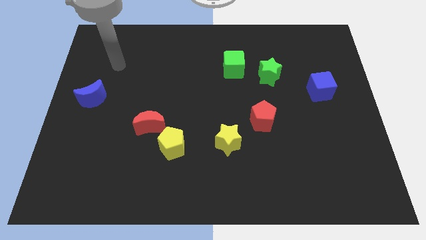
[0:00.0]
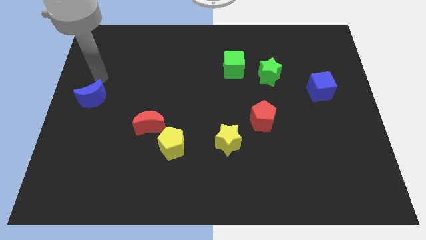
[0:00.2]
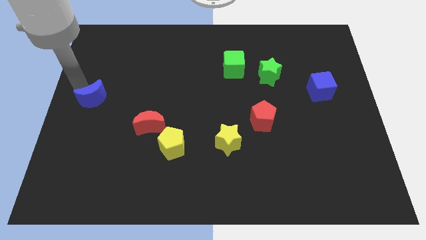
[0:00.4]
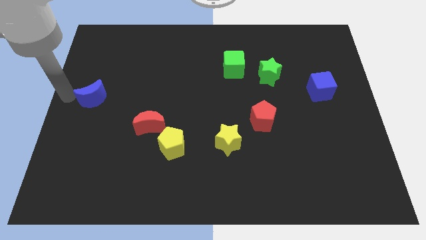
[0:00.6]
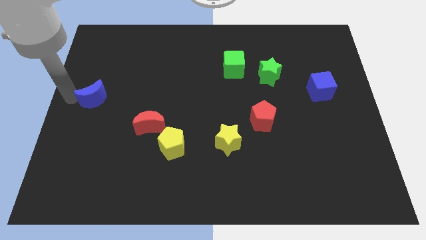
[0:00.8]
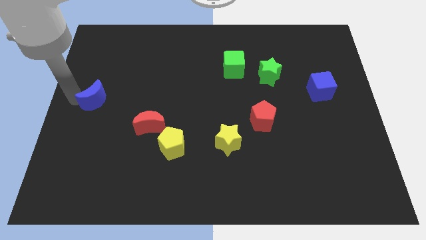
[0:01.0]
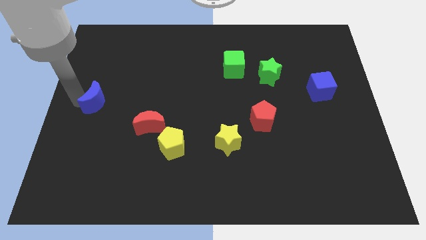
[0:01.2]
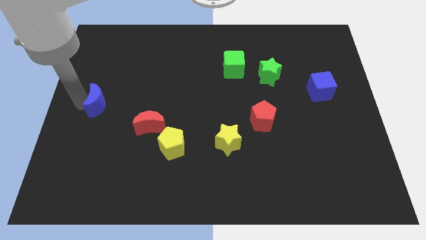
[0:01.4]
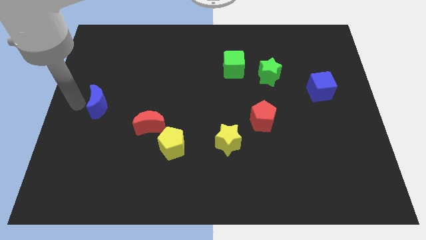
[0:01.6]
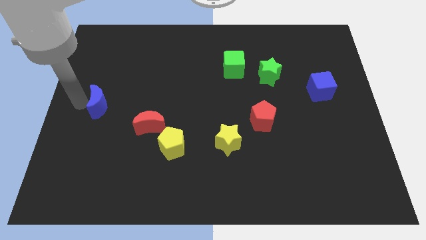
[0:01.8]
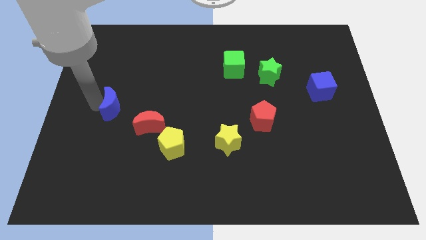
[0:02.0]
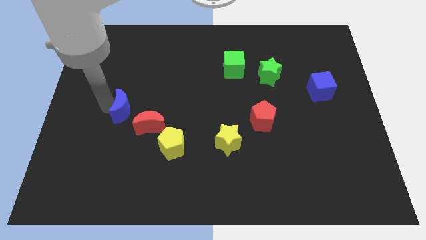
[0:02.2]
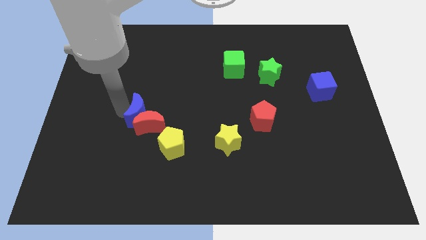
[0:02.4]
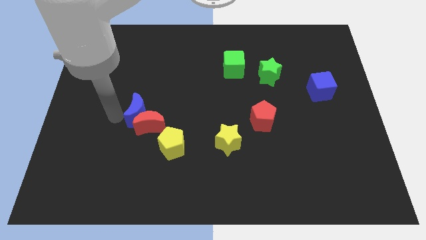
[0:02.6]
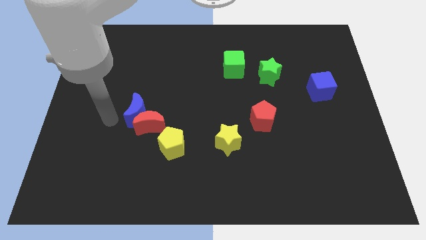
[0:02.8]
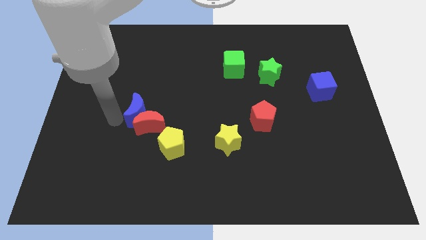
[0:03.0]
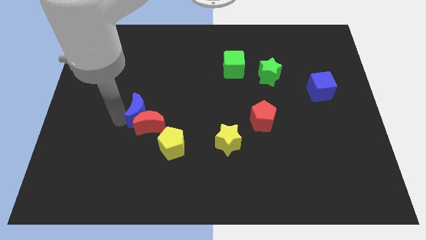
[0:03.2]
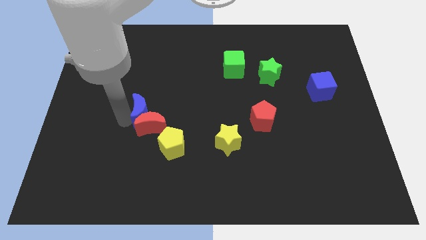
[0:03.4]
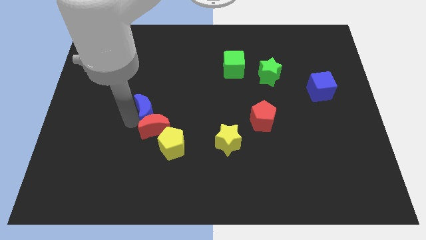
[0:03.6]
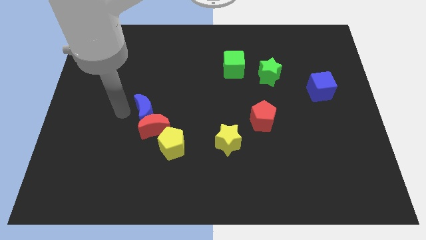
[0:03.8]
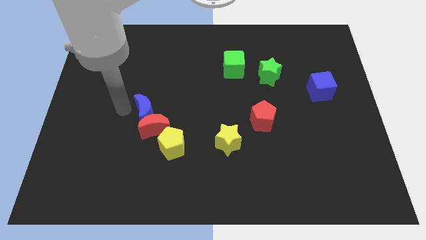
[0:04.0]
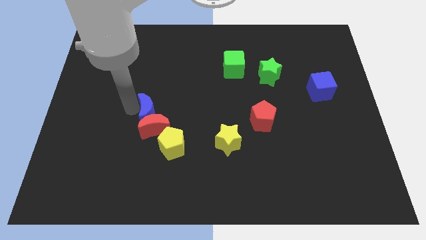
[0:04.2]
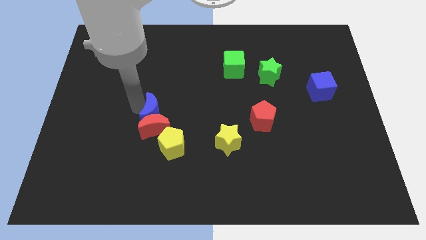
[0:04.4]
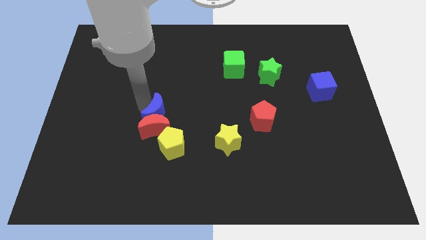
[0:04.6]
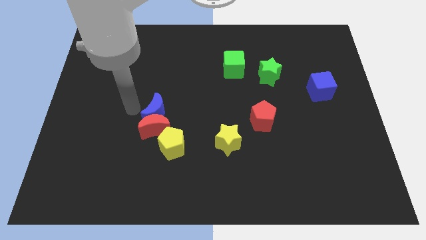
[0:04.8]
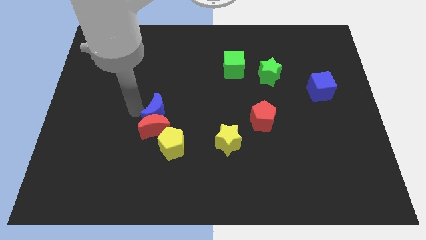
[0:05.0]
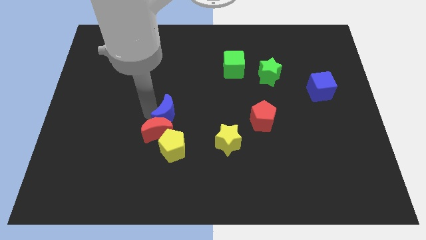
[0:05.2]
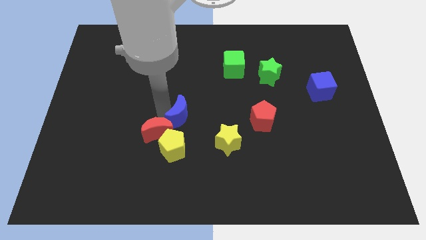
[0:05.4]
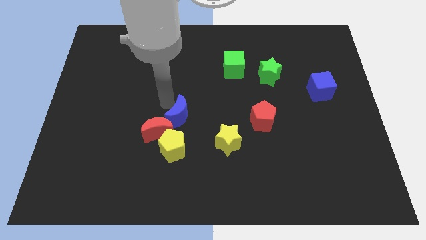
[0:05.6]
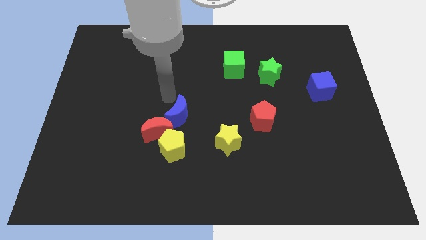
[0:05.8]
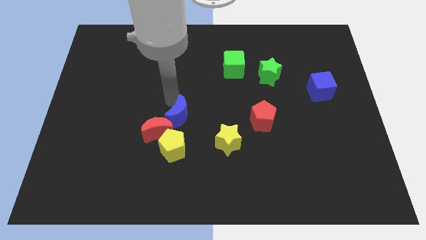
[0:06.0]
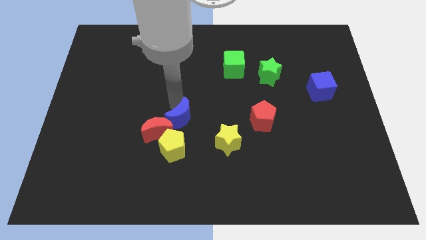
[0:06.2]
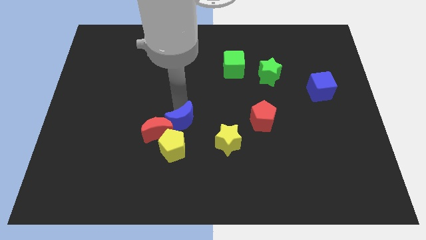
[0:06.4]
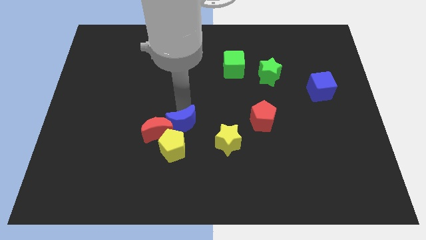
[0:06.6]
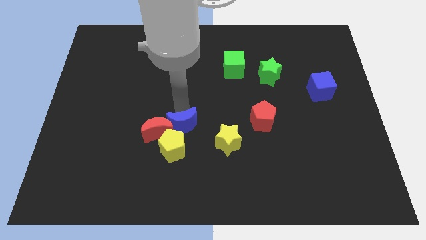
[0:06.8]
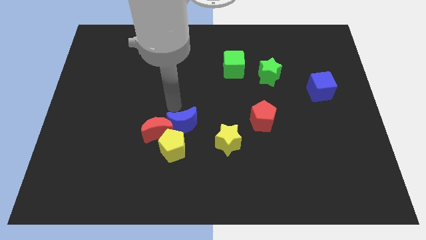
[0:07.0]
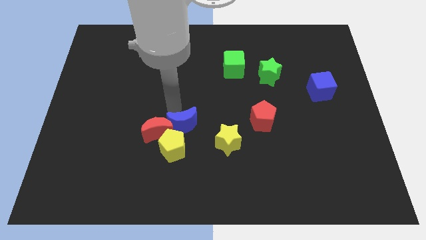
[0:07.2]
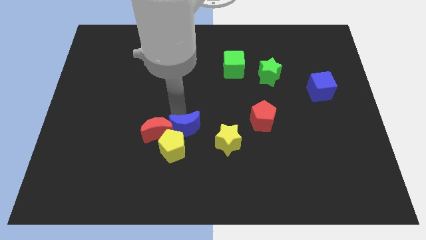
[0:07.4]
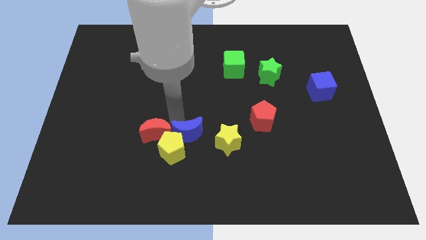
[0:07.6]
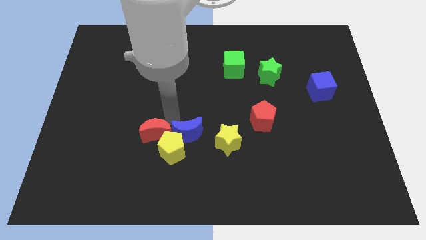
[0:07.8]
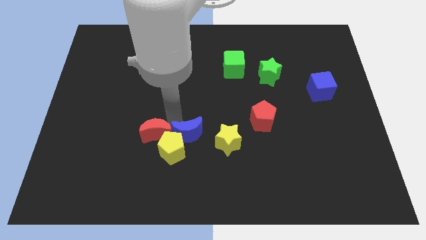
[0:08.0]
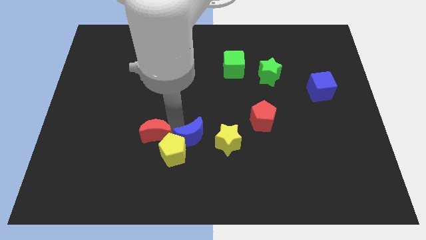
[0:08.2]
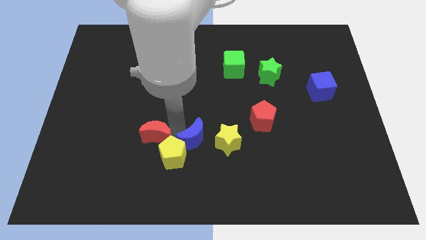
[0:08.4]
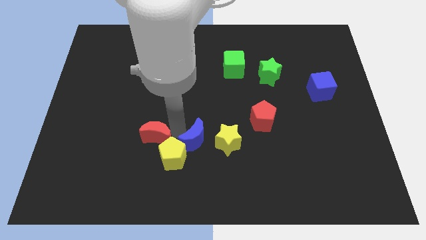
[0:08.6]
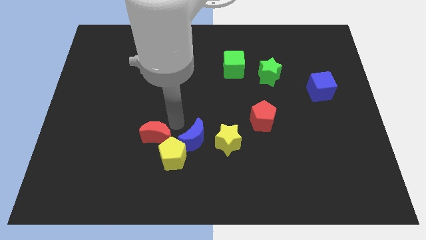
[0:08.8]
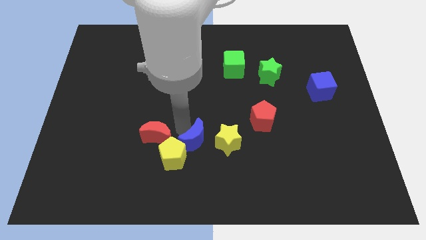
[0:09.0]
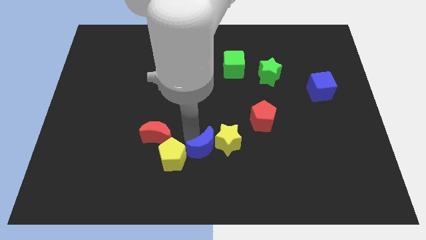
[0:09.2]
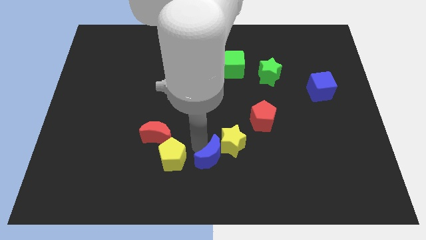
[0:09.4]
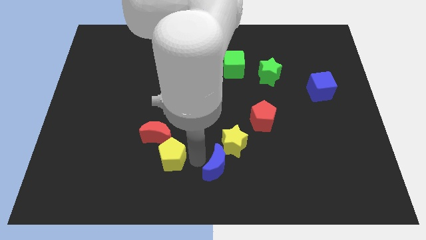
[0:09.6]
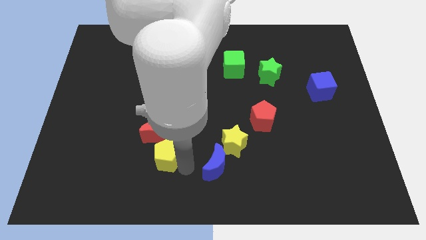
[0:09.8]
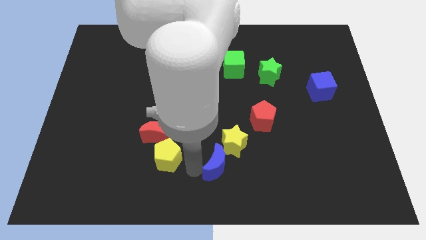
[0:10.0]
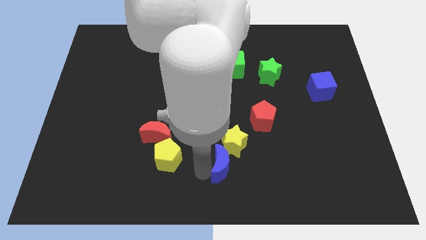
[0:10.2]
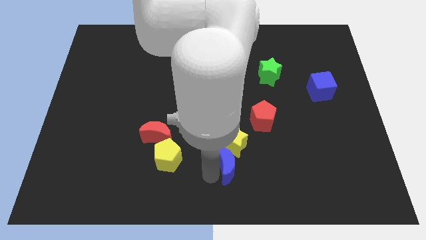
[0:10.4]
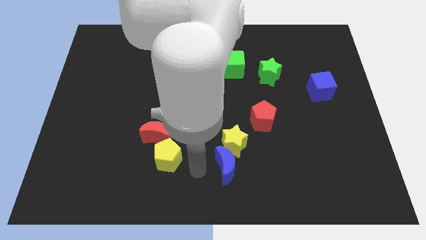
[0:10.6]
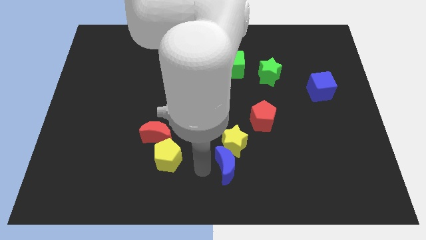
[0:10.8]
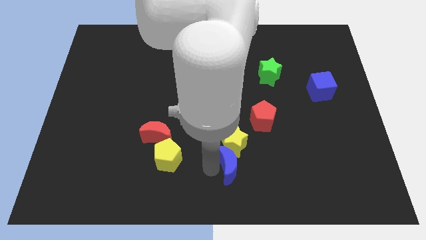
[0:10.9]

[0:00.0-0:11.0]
put the blue moon to the bottom right side of the yellow star

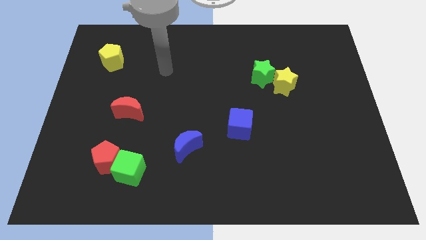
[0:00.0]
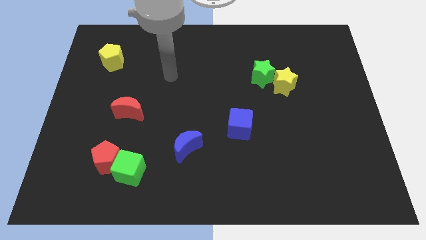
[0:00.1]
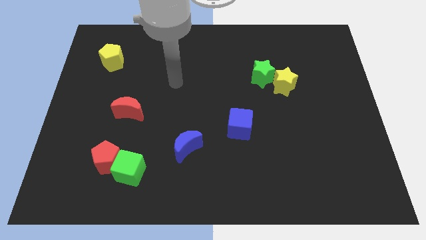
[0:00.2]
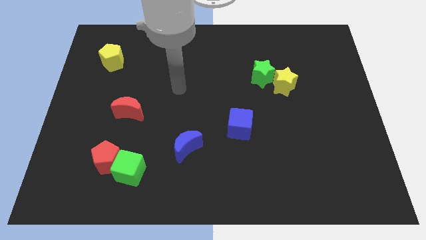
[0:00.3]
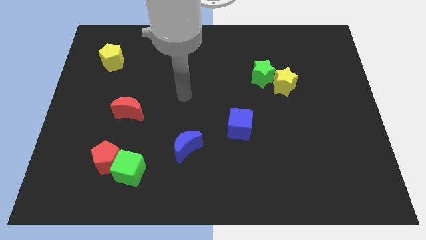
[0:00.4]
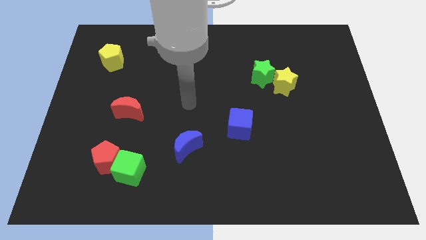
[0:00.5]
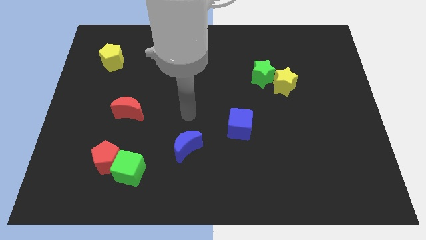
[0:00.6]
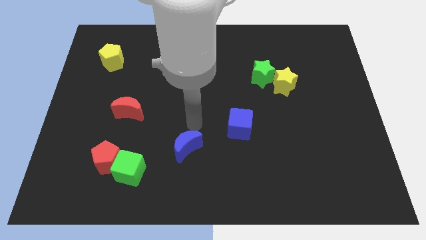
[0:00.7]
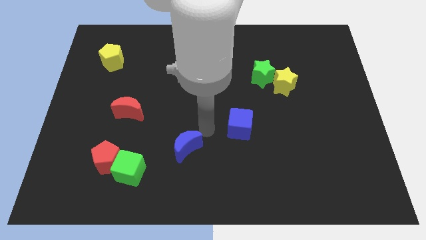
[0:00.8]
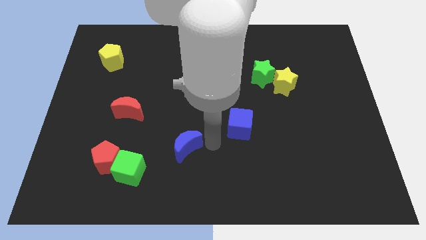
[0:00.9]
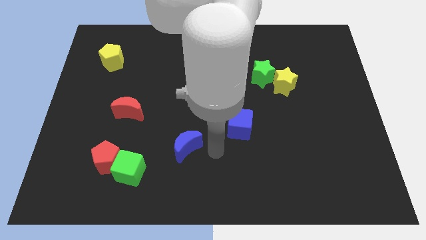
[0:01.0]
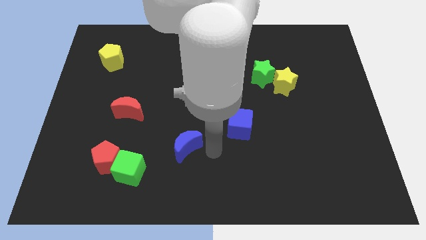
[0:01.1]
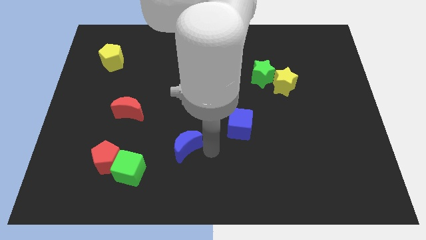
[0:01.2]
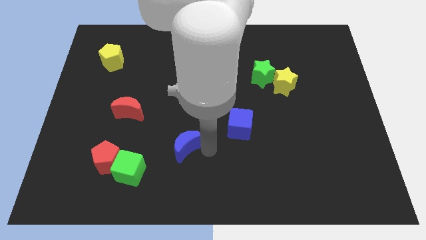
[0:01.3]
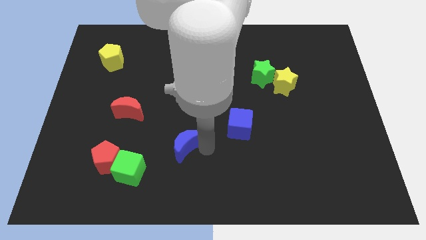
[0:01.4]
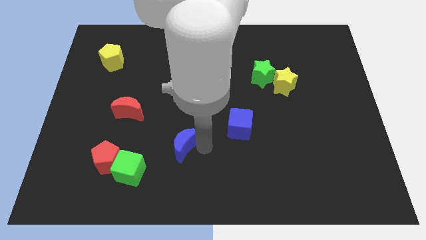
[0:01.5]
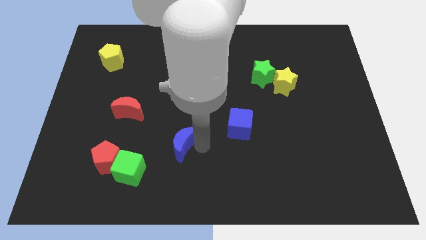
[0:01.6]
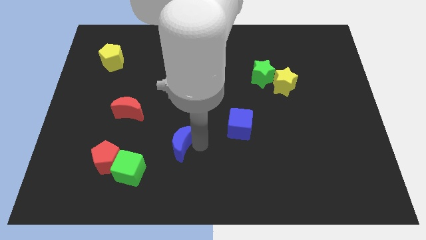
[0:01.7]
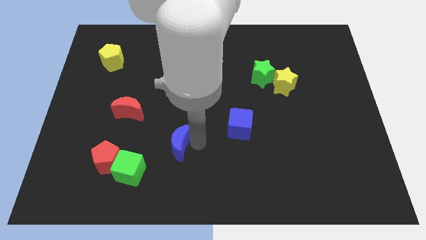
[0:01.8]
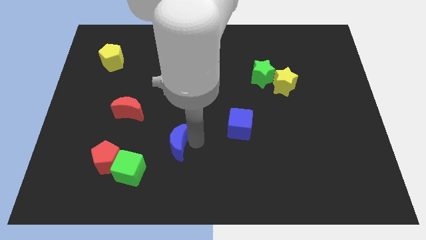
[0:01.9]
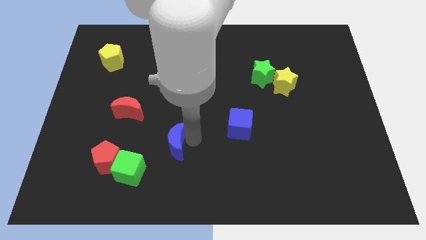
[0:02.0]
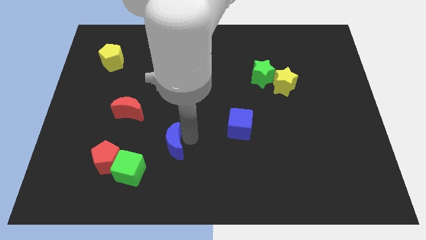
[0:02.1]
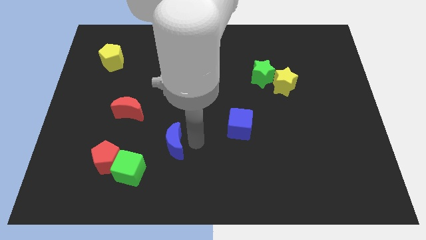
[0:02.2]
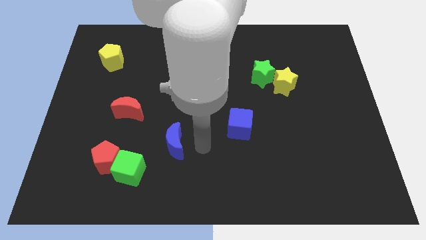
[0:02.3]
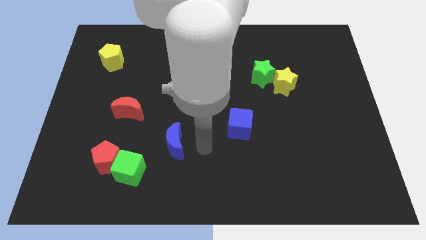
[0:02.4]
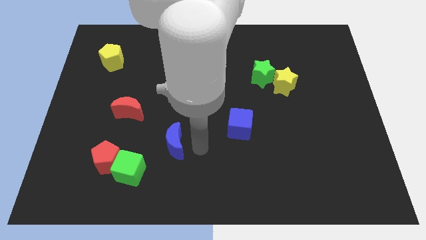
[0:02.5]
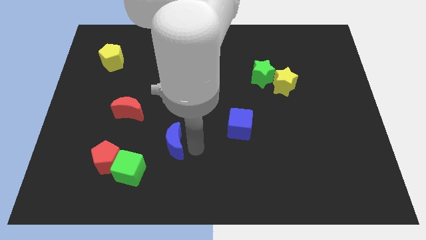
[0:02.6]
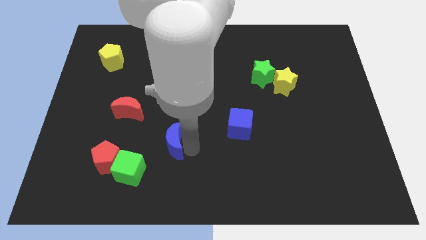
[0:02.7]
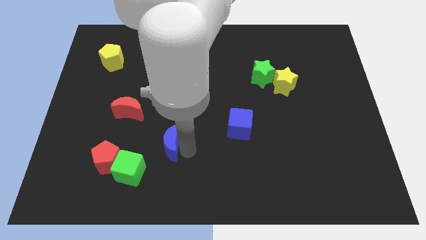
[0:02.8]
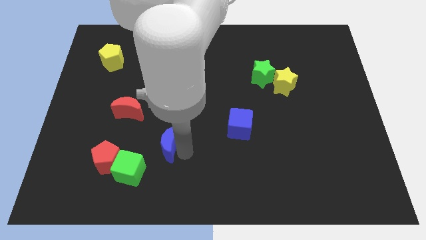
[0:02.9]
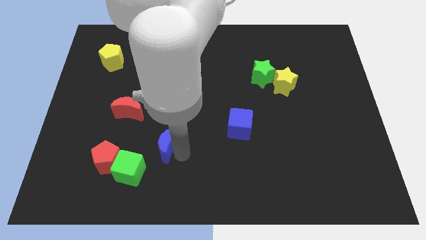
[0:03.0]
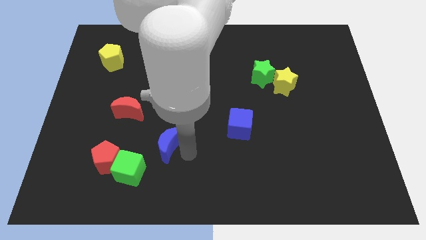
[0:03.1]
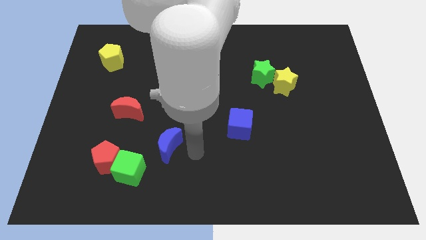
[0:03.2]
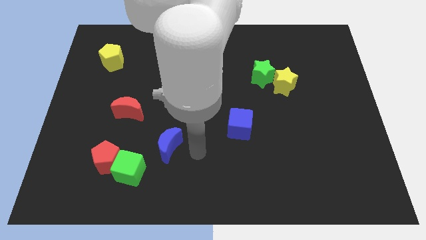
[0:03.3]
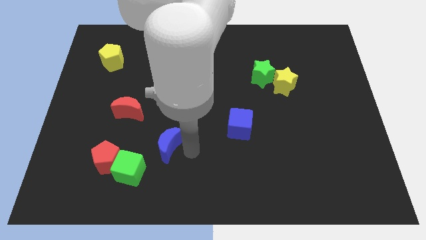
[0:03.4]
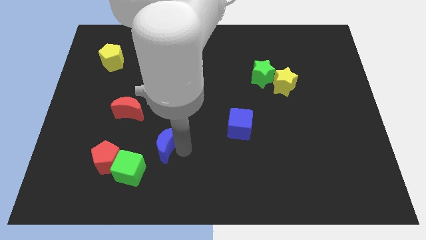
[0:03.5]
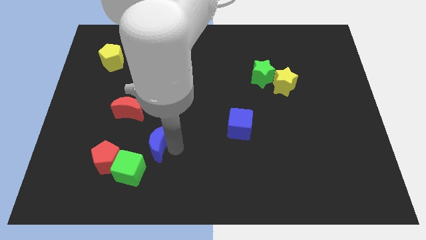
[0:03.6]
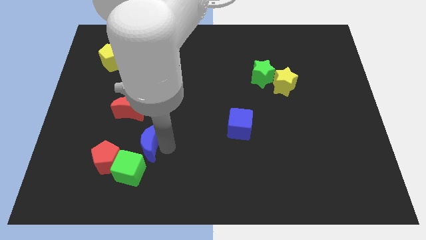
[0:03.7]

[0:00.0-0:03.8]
slide the blue moon to the top right side of the red pentagon
